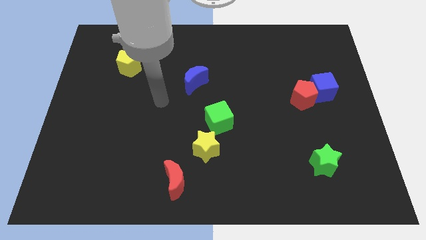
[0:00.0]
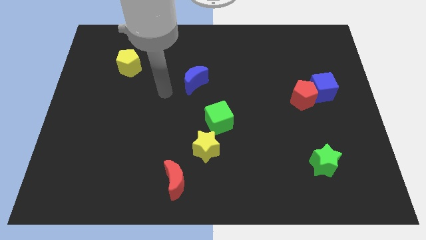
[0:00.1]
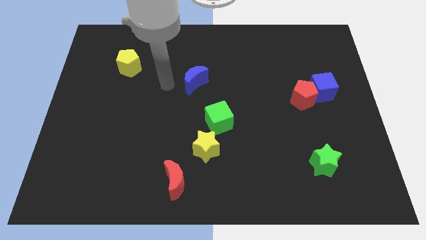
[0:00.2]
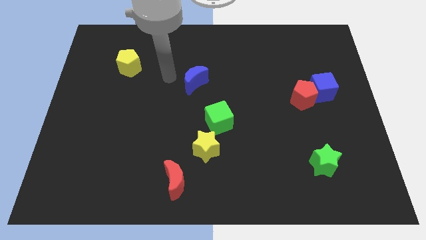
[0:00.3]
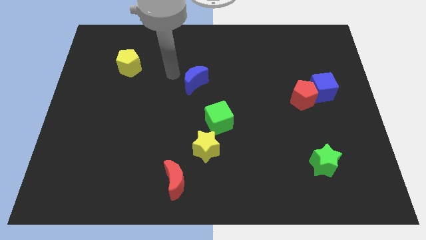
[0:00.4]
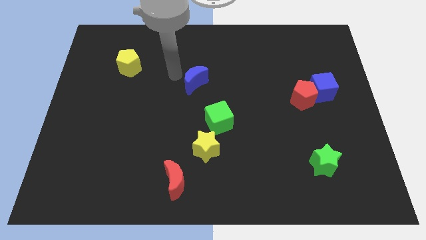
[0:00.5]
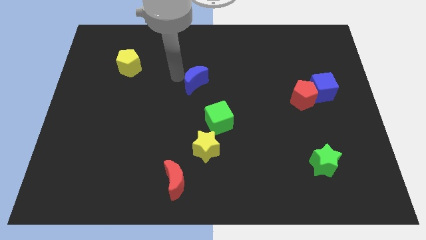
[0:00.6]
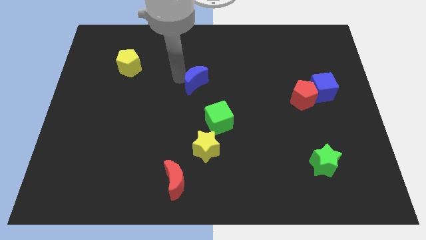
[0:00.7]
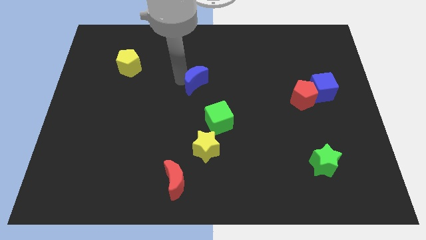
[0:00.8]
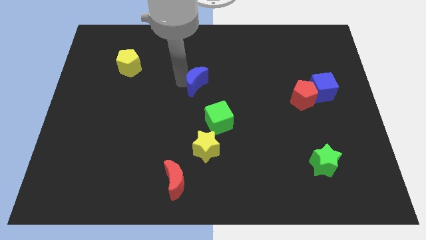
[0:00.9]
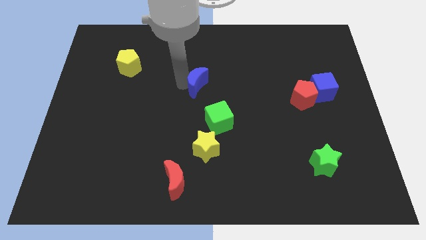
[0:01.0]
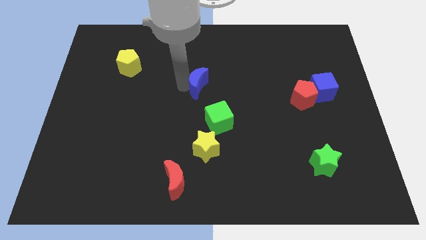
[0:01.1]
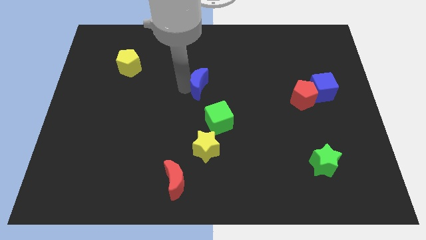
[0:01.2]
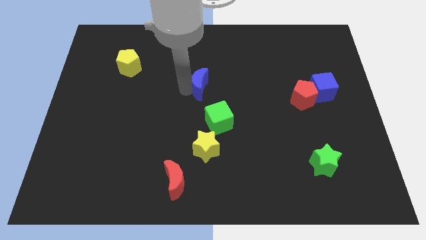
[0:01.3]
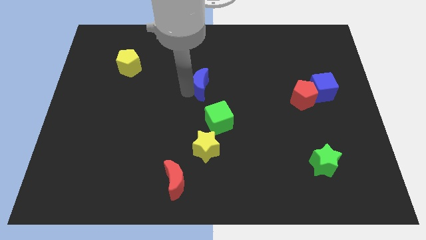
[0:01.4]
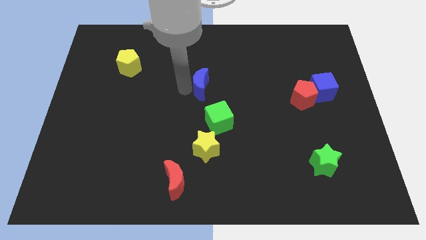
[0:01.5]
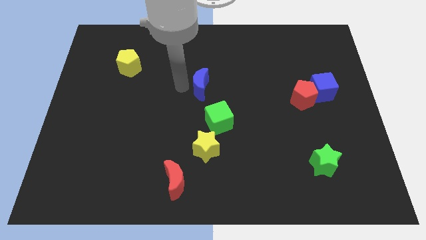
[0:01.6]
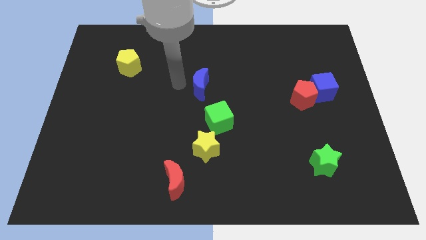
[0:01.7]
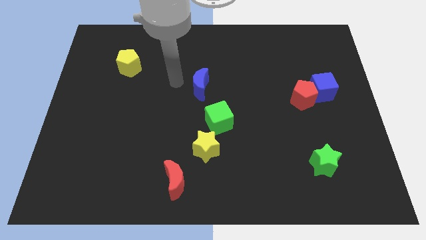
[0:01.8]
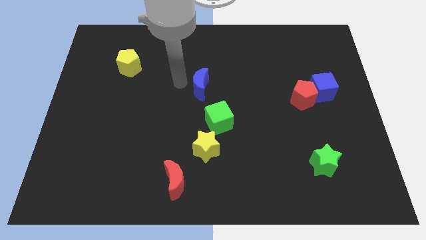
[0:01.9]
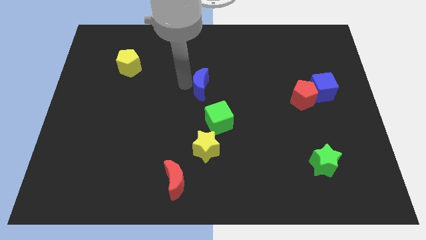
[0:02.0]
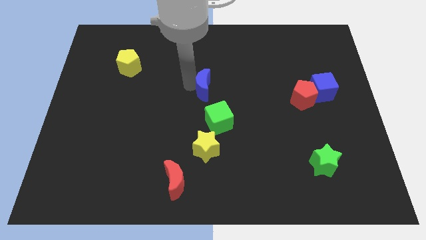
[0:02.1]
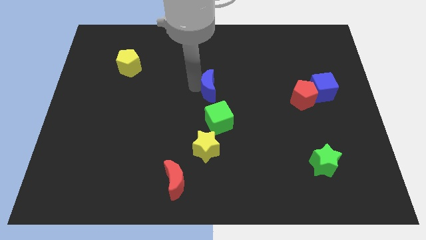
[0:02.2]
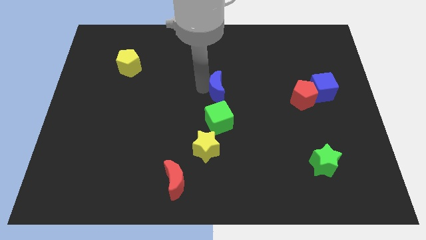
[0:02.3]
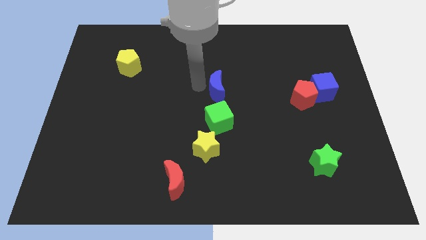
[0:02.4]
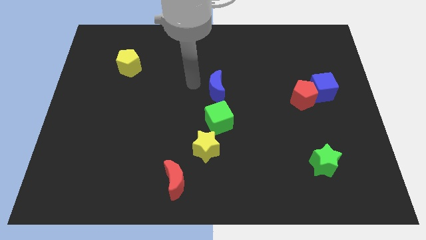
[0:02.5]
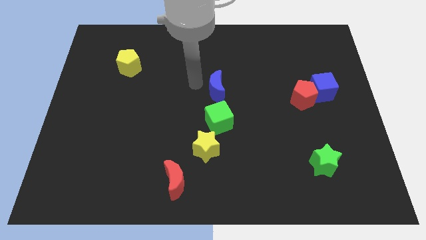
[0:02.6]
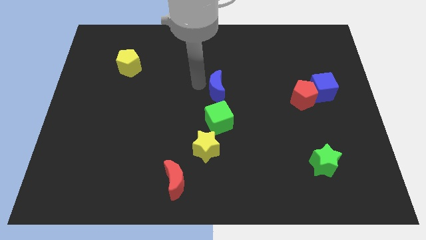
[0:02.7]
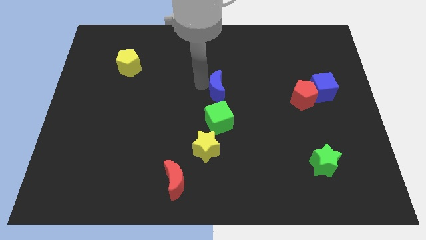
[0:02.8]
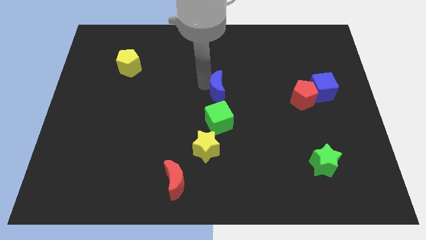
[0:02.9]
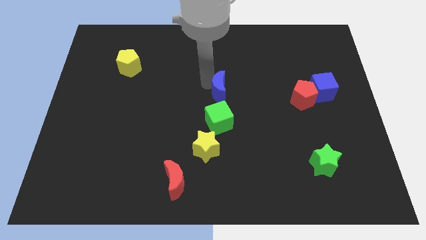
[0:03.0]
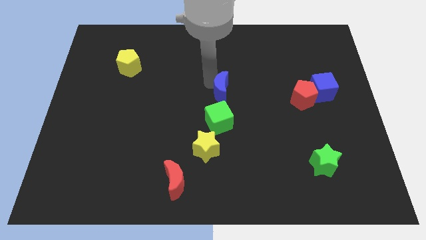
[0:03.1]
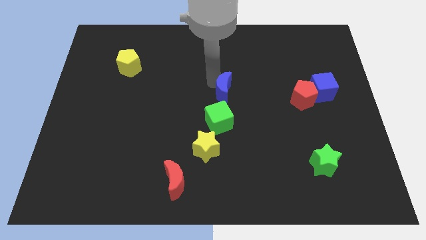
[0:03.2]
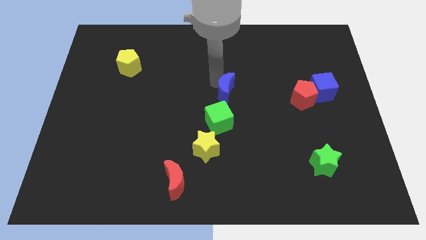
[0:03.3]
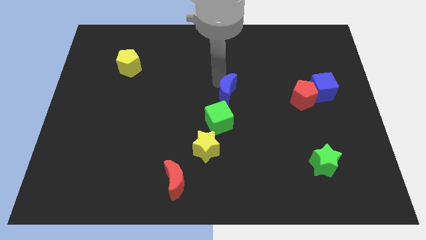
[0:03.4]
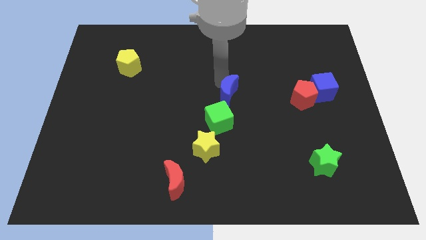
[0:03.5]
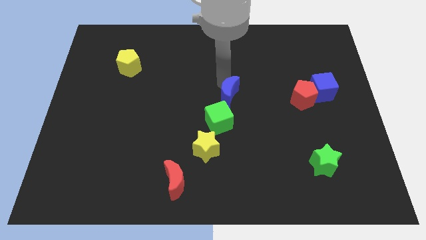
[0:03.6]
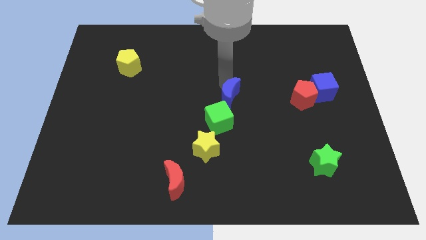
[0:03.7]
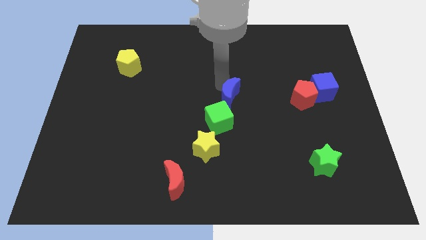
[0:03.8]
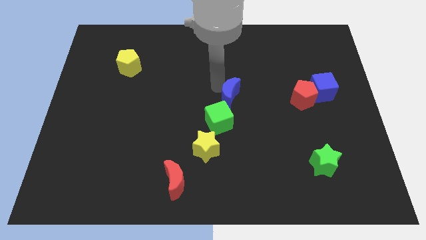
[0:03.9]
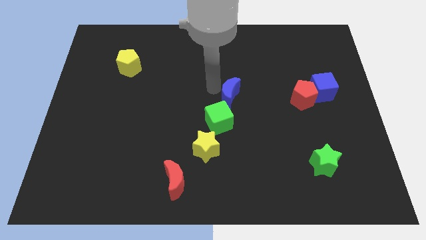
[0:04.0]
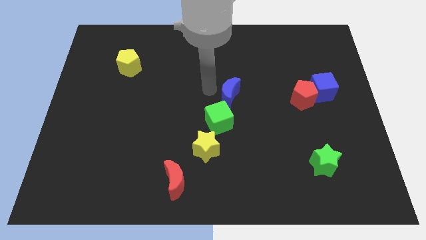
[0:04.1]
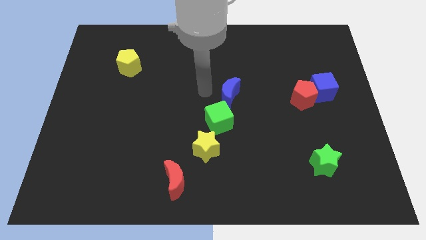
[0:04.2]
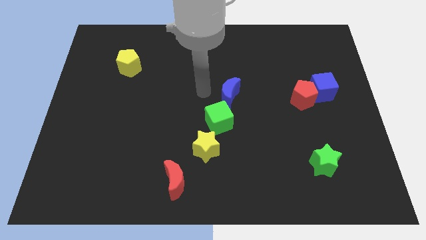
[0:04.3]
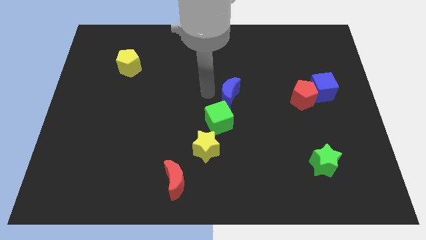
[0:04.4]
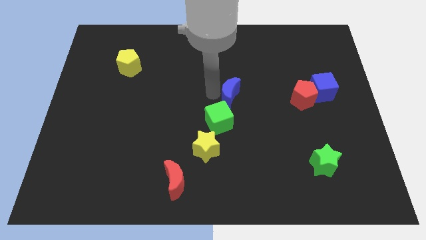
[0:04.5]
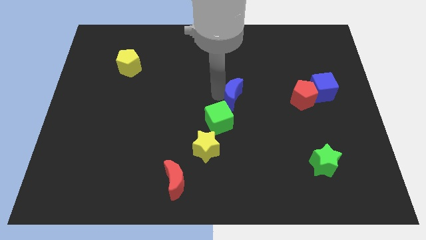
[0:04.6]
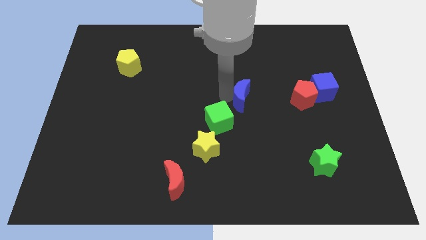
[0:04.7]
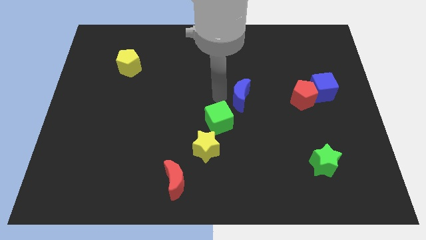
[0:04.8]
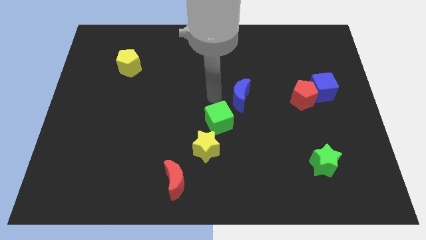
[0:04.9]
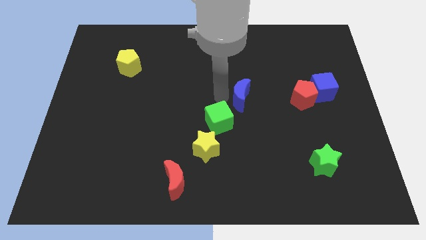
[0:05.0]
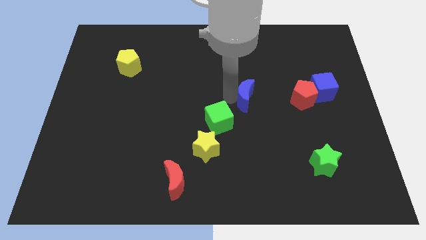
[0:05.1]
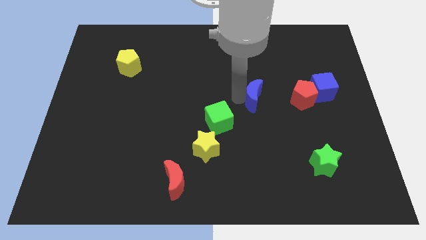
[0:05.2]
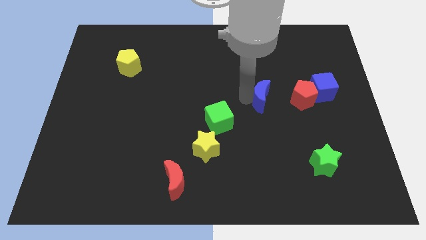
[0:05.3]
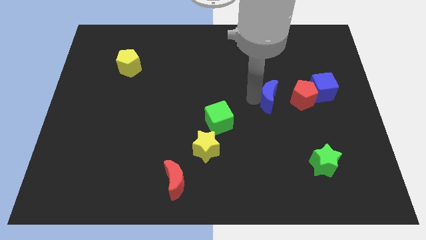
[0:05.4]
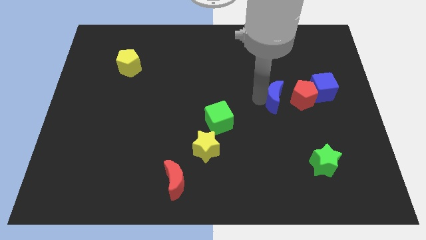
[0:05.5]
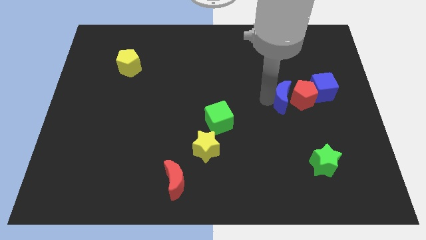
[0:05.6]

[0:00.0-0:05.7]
put the blue moon towards the red pentagon

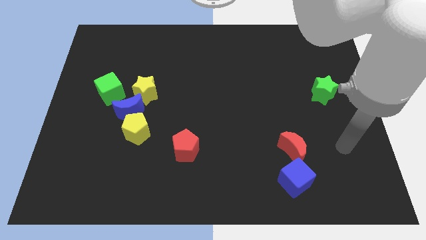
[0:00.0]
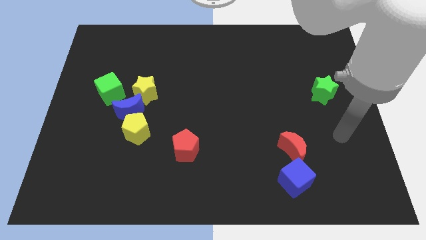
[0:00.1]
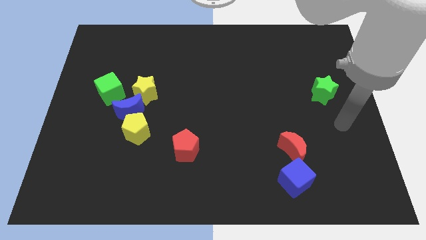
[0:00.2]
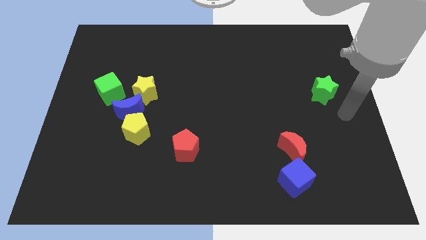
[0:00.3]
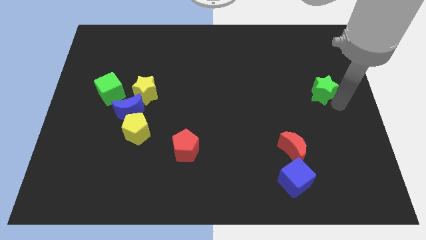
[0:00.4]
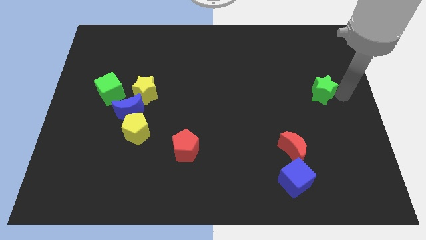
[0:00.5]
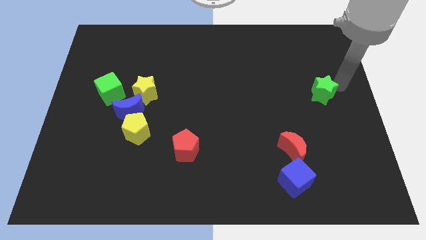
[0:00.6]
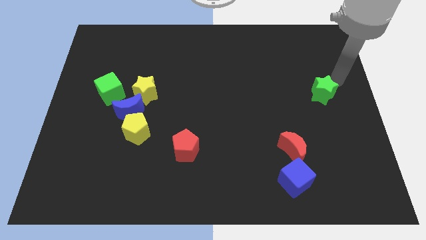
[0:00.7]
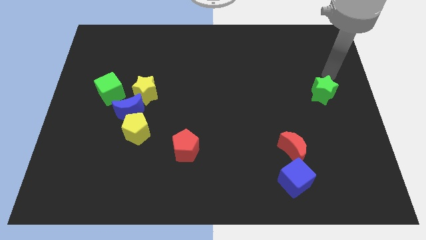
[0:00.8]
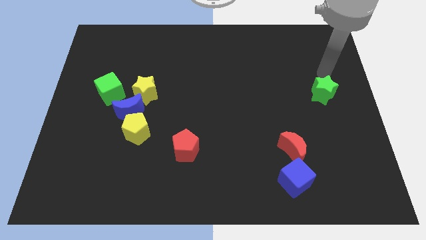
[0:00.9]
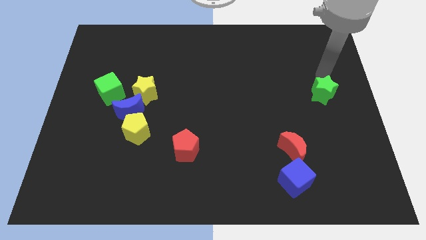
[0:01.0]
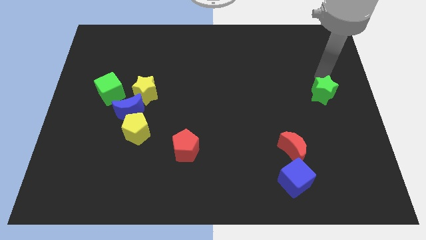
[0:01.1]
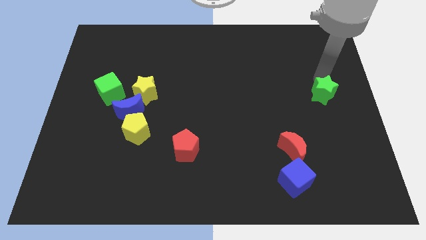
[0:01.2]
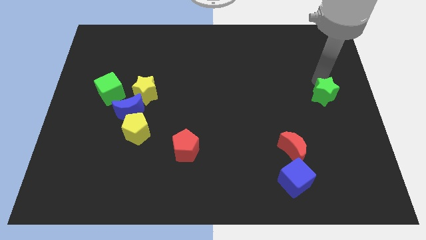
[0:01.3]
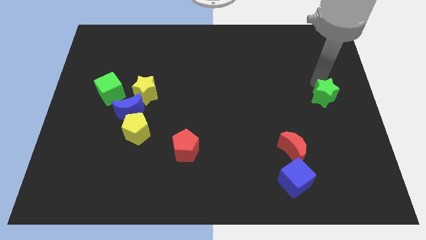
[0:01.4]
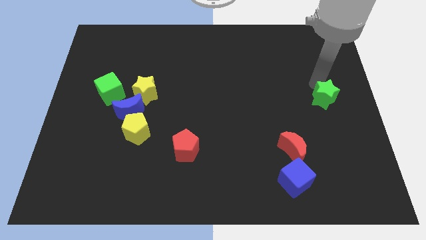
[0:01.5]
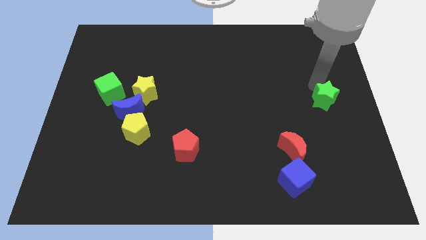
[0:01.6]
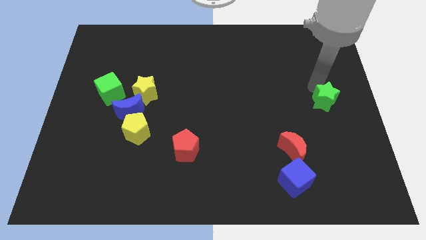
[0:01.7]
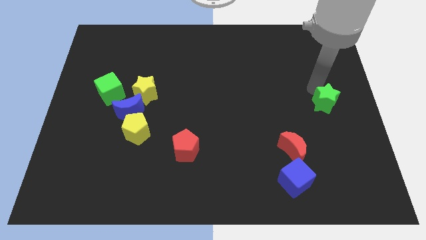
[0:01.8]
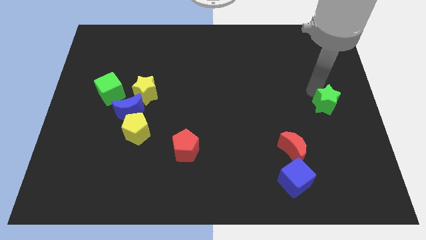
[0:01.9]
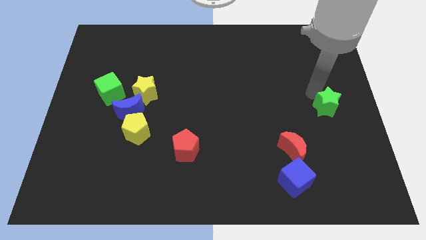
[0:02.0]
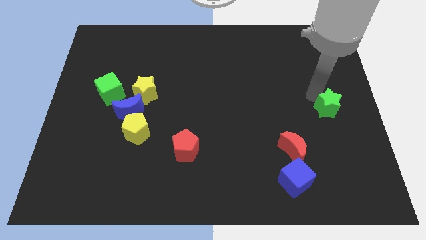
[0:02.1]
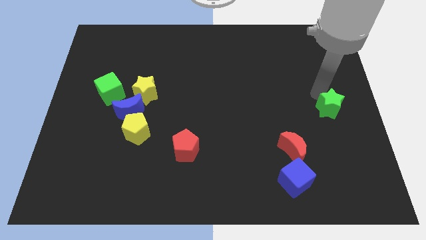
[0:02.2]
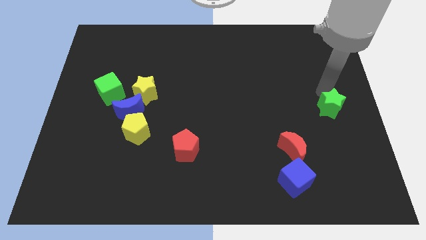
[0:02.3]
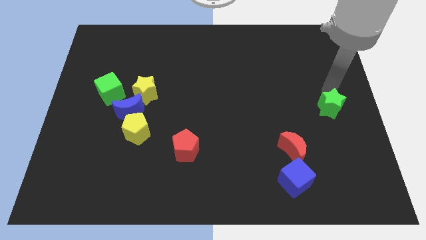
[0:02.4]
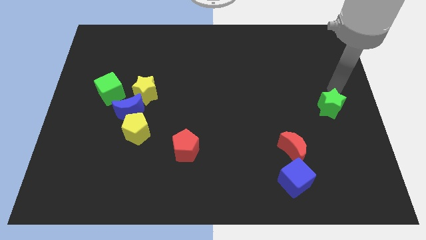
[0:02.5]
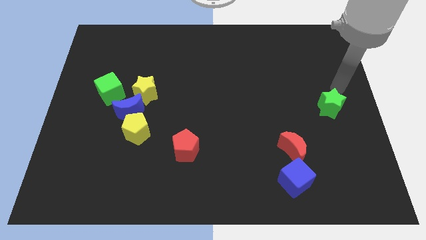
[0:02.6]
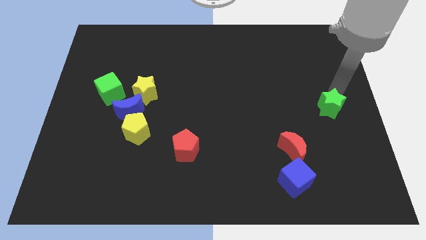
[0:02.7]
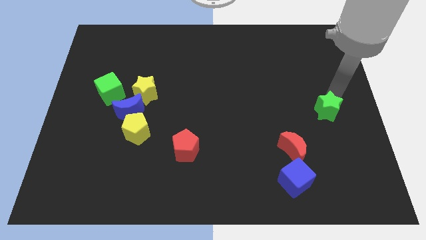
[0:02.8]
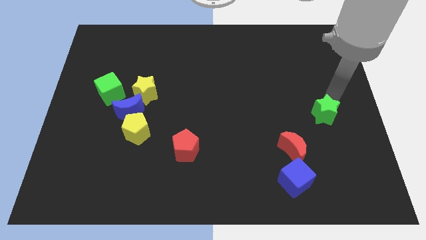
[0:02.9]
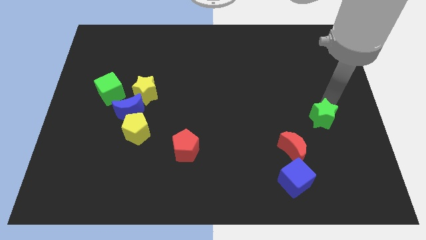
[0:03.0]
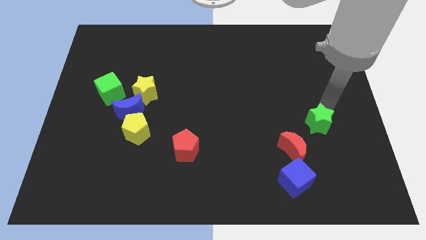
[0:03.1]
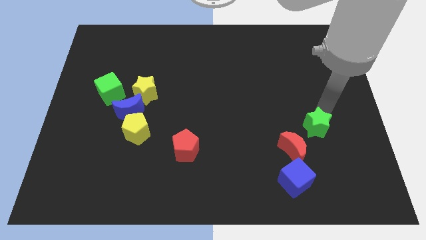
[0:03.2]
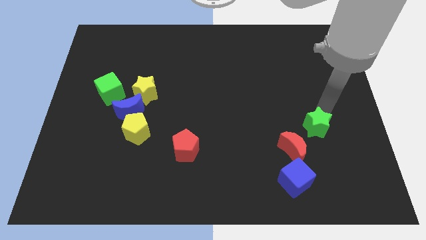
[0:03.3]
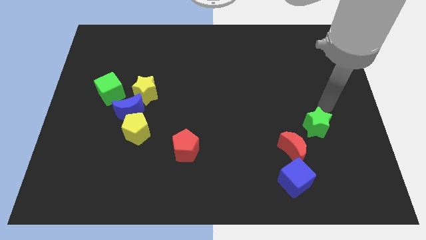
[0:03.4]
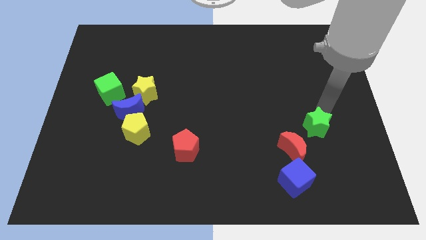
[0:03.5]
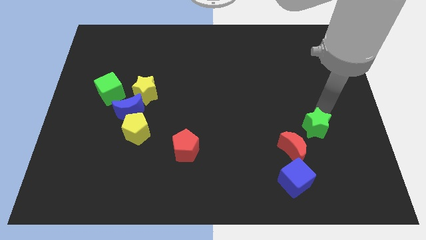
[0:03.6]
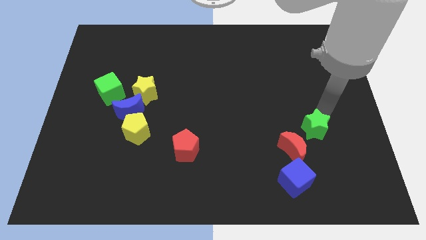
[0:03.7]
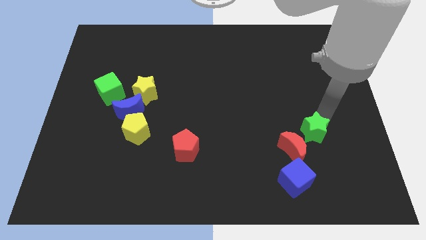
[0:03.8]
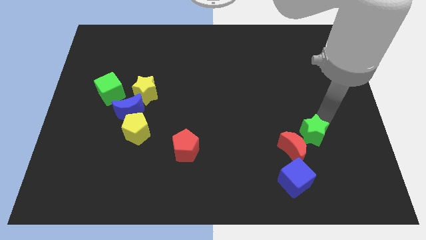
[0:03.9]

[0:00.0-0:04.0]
slide the green star to the red moon
